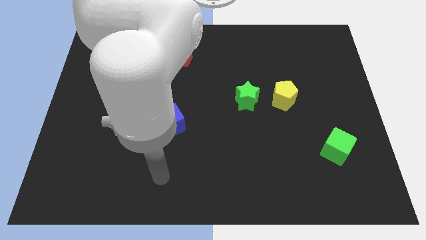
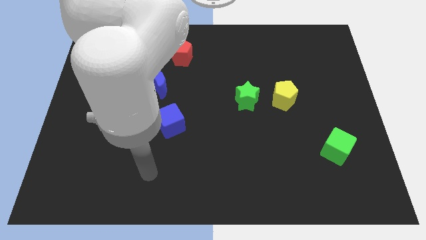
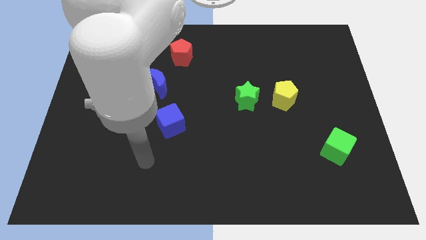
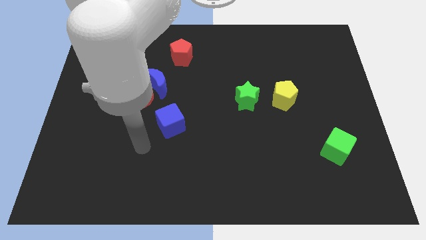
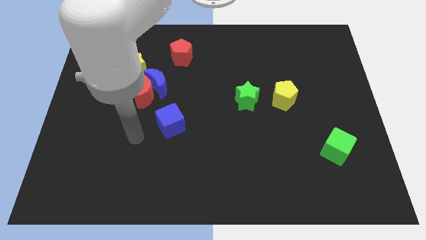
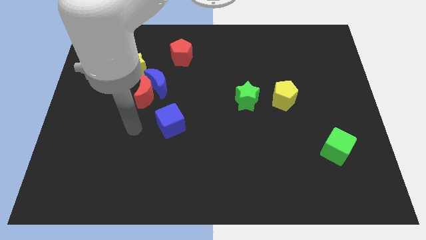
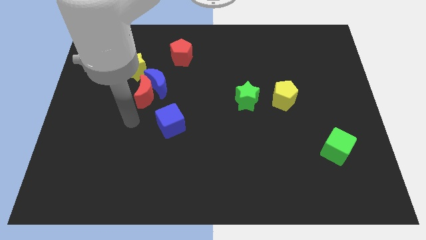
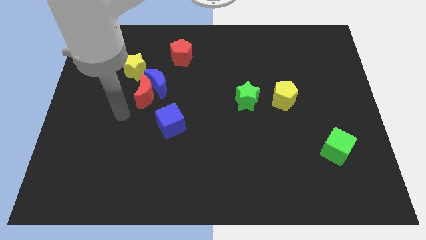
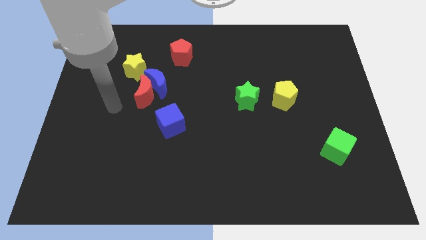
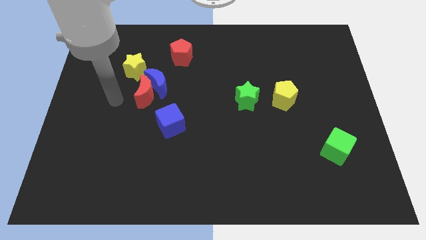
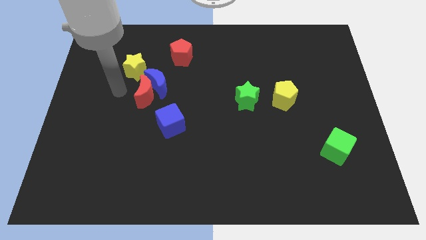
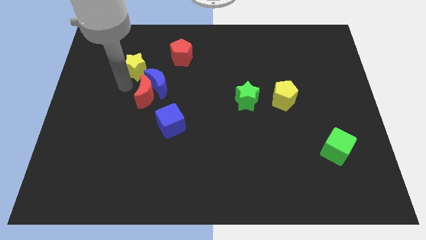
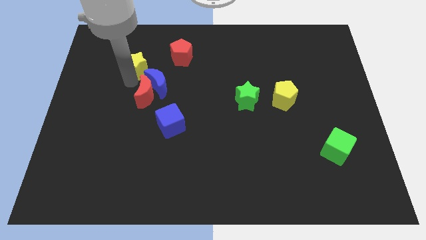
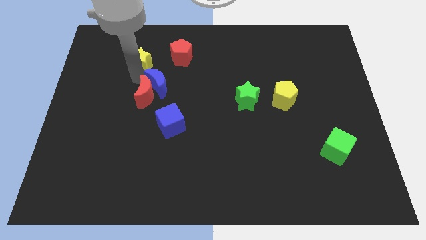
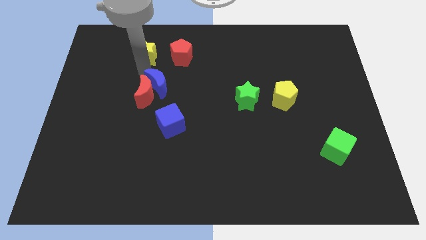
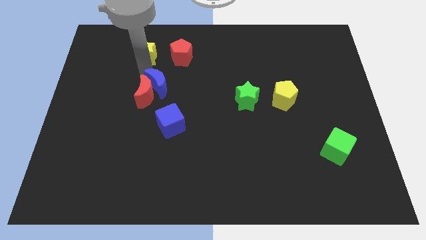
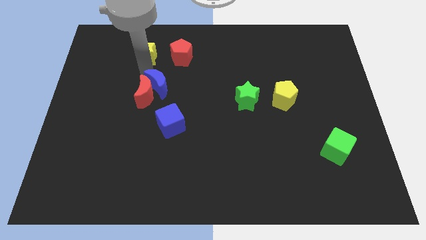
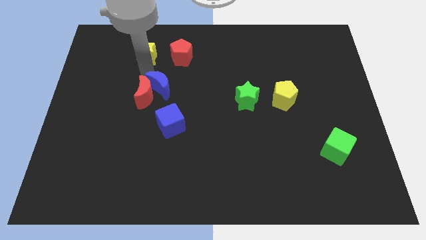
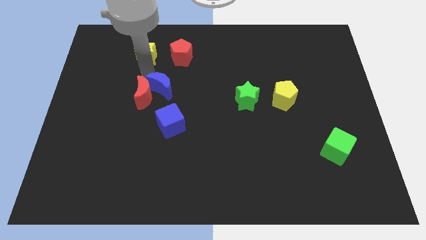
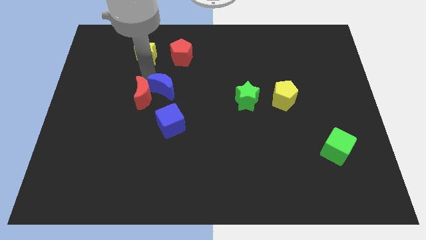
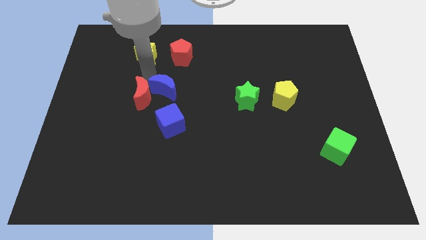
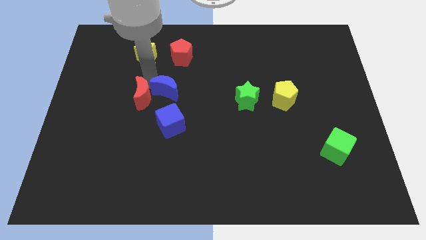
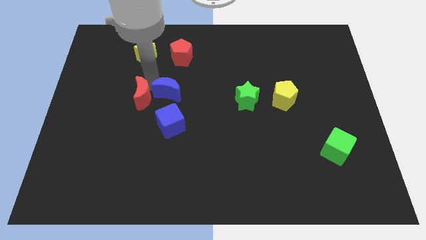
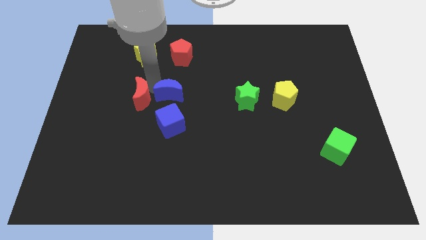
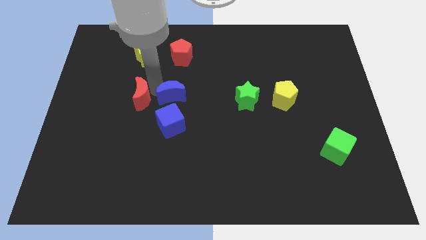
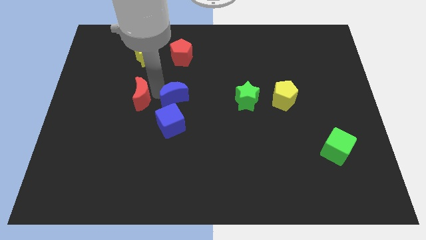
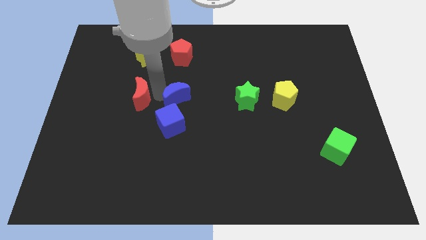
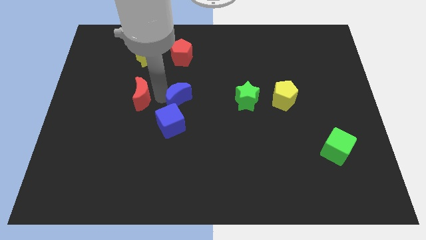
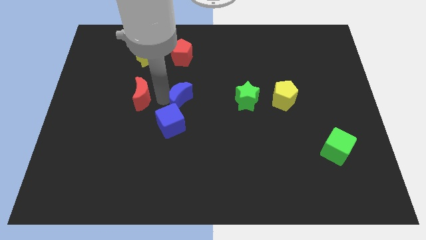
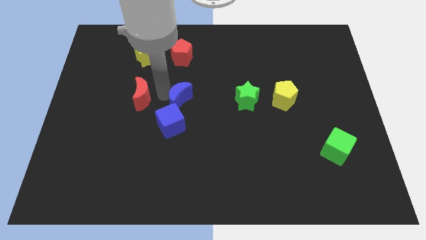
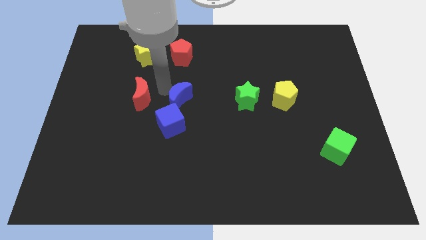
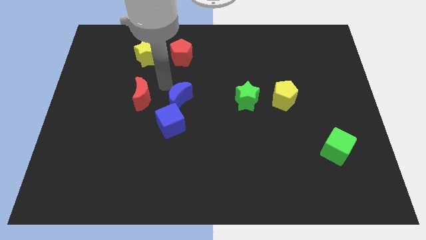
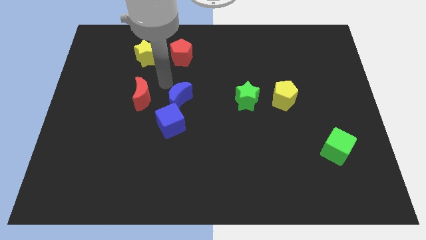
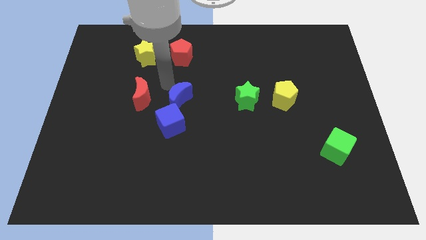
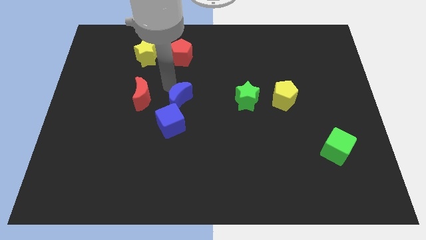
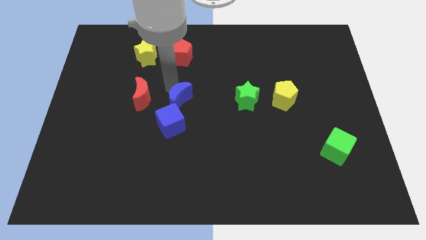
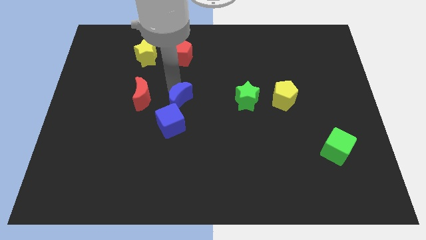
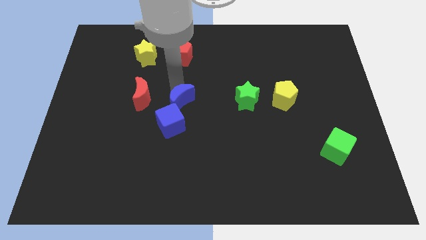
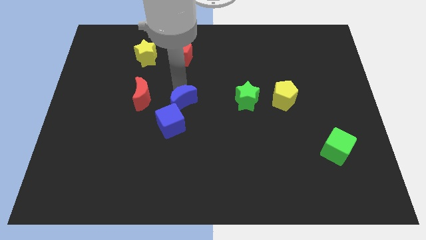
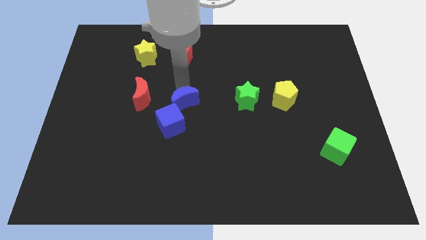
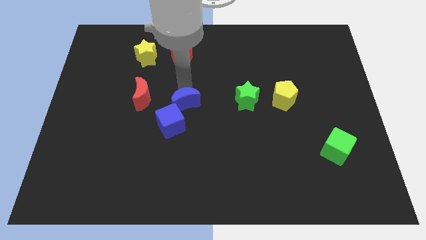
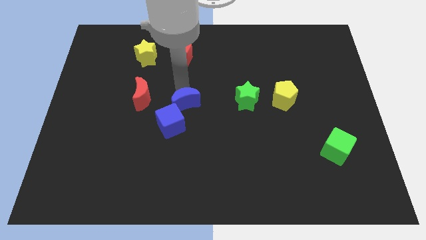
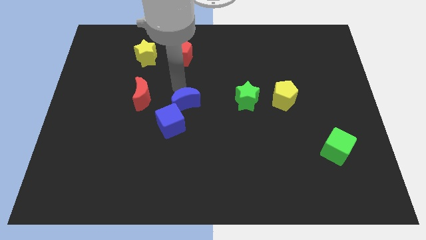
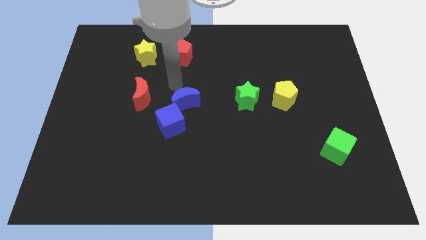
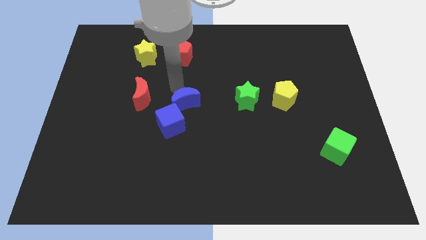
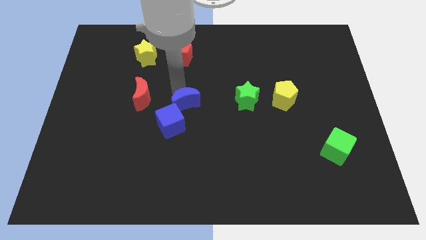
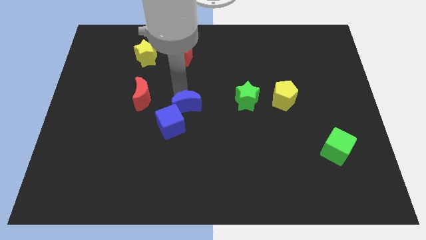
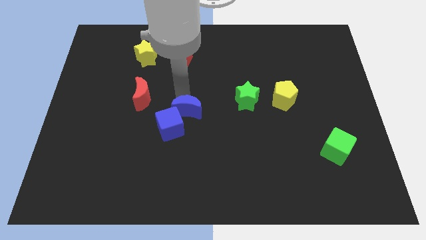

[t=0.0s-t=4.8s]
put the blue moon right of the blue cube

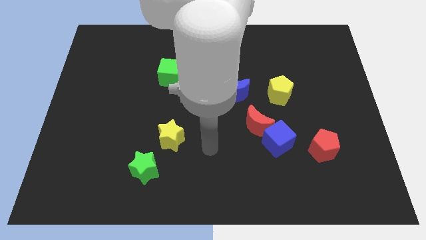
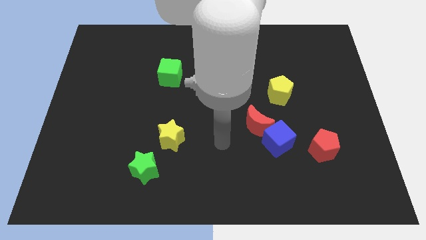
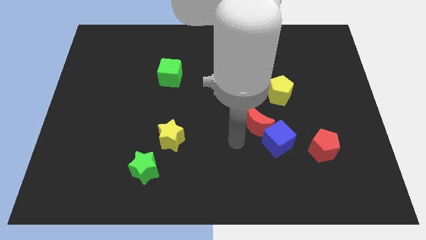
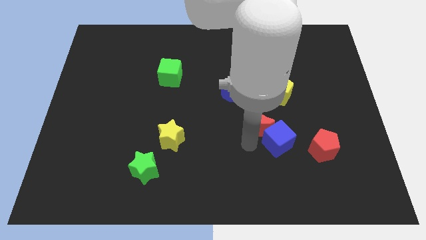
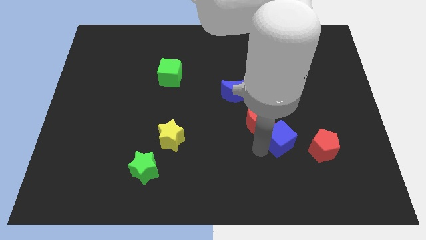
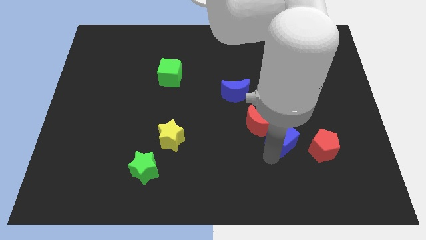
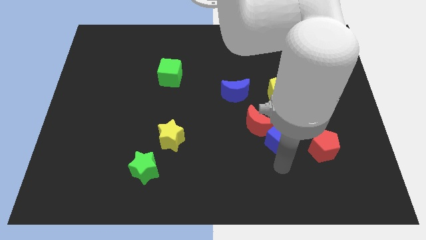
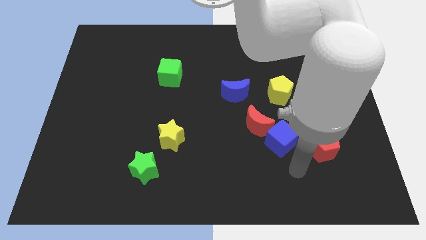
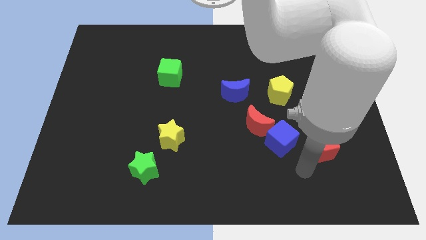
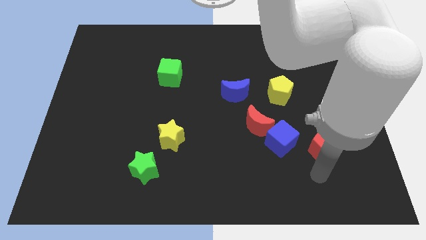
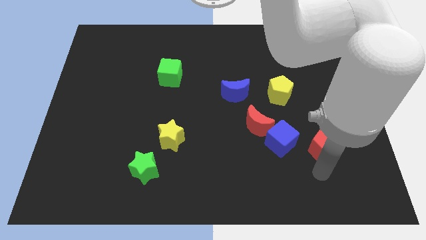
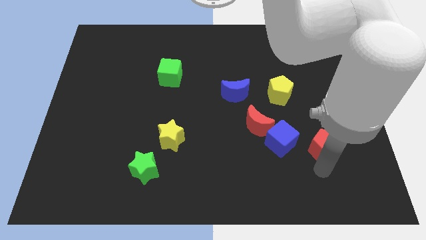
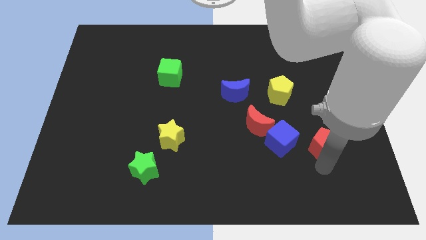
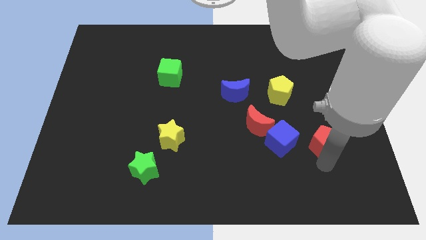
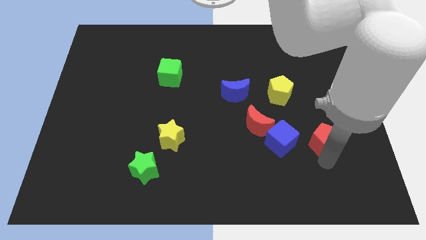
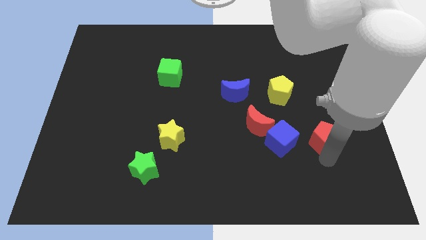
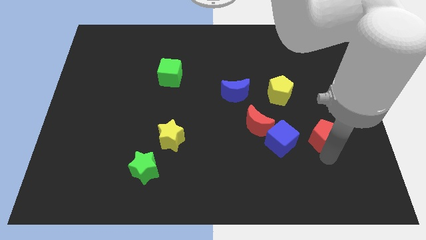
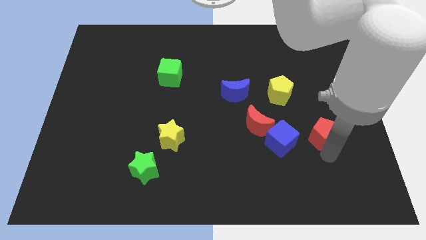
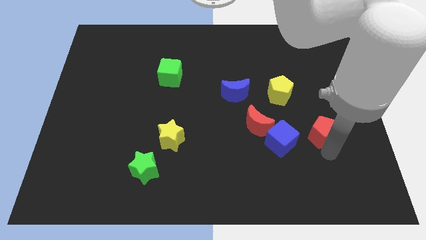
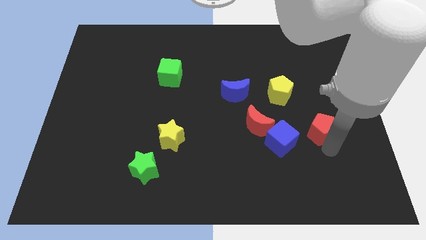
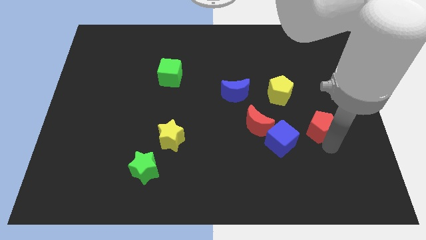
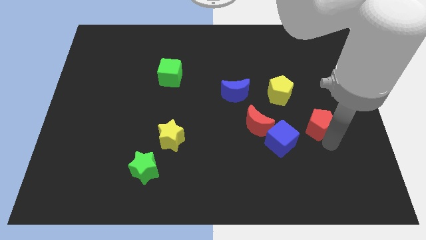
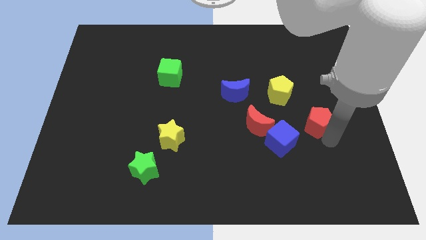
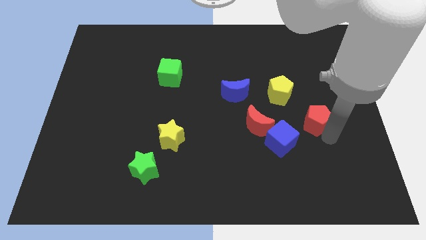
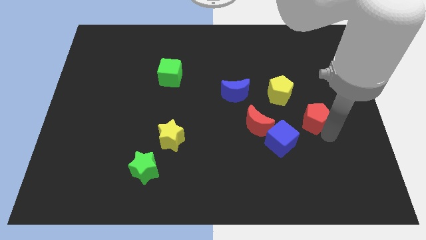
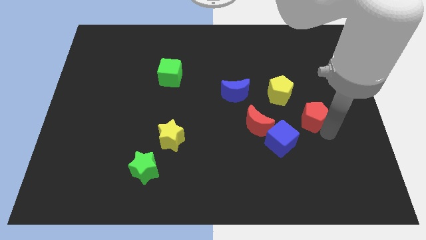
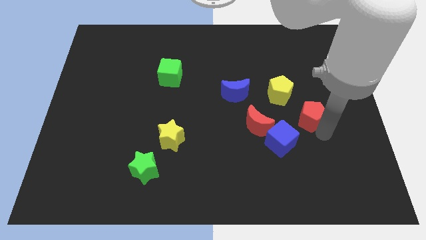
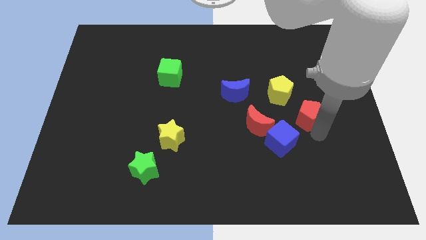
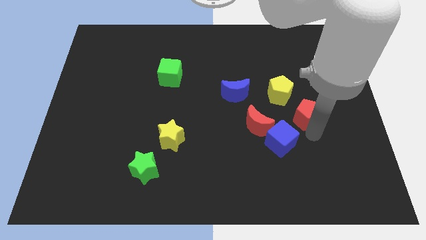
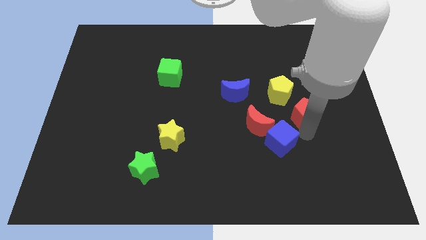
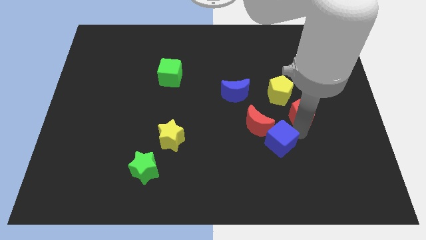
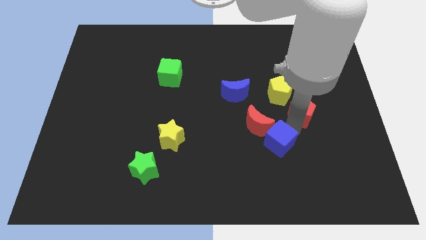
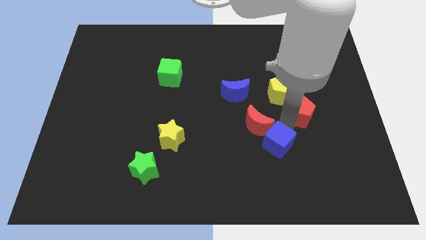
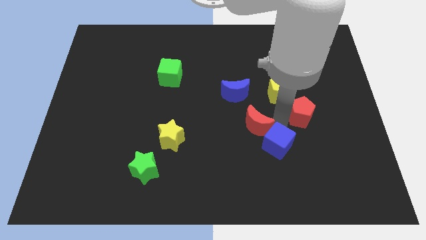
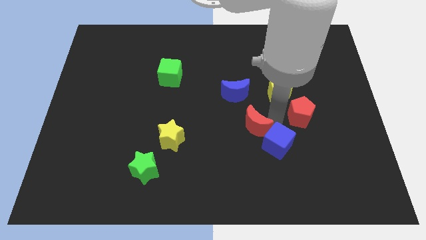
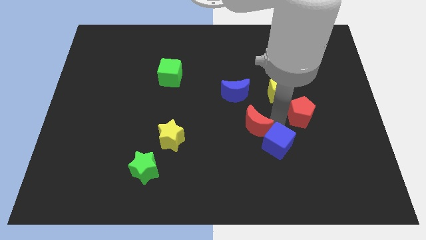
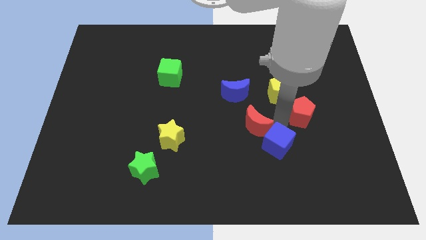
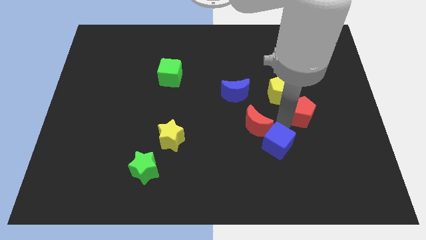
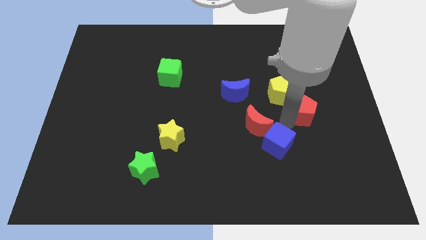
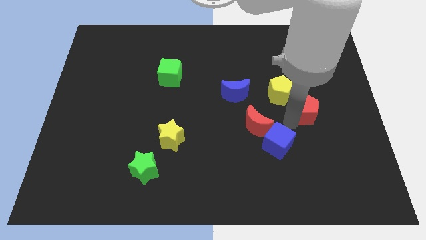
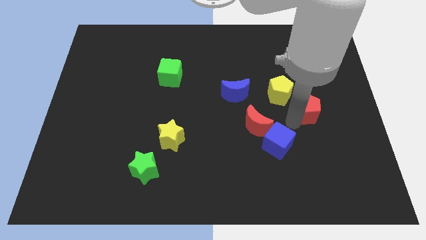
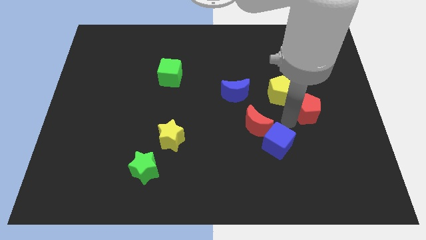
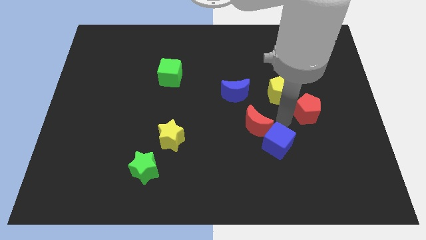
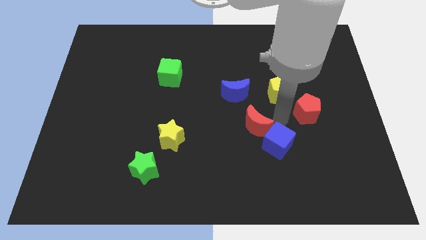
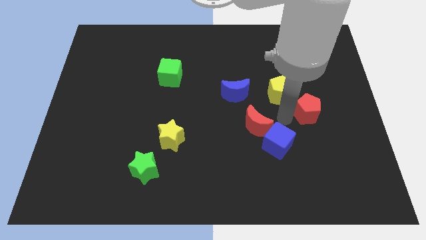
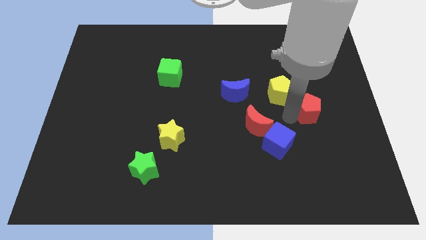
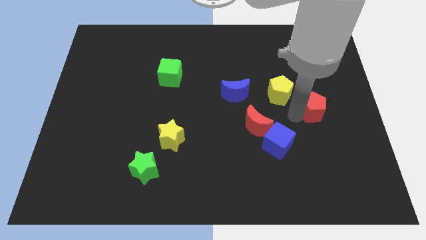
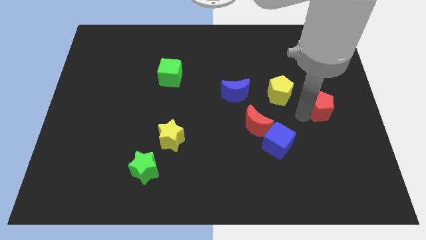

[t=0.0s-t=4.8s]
push the red pentagon to the right side of the yellow pentagon
